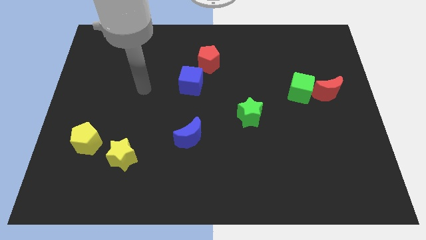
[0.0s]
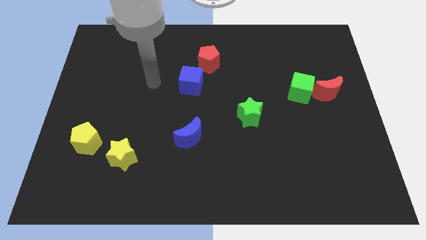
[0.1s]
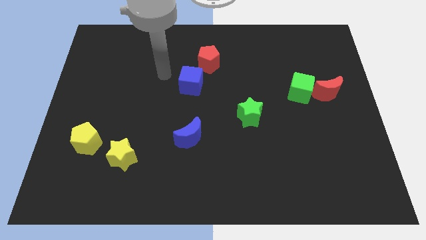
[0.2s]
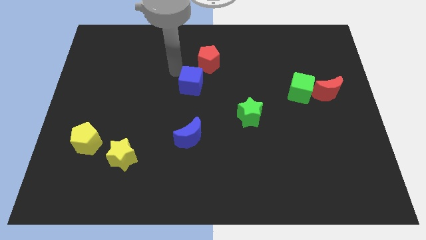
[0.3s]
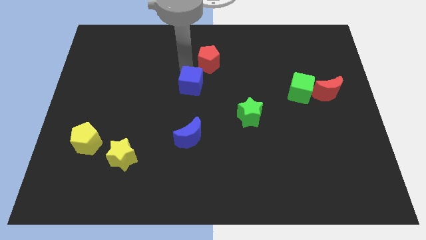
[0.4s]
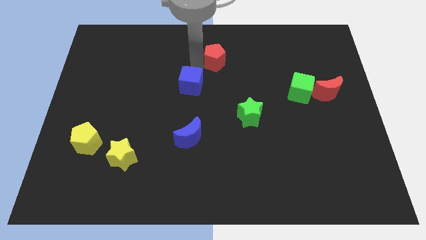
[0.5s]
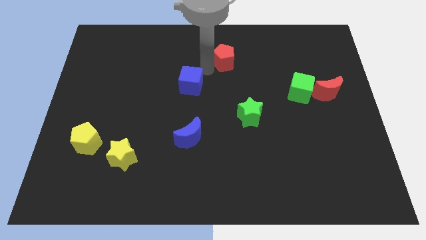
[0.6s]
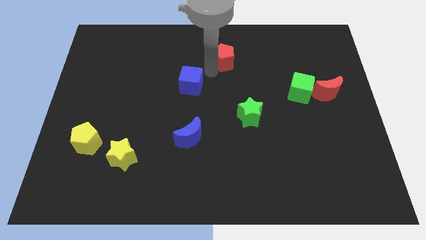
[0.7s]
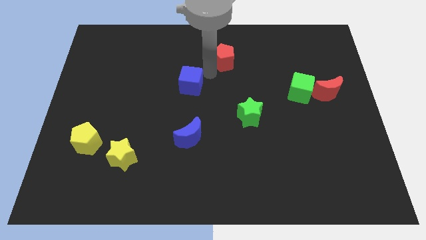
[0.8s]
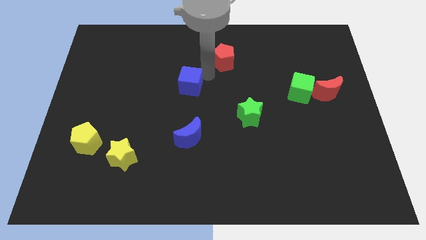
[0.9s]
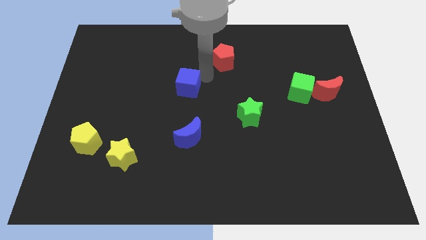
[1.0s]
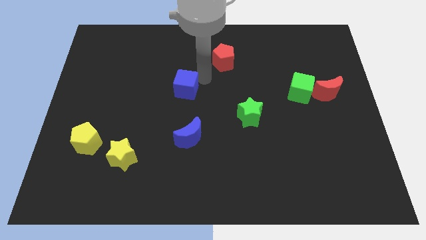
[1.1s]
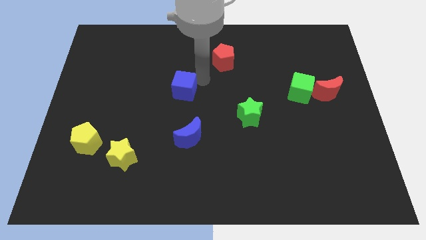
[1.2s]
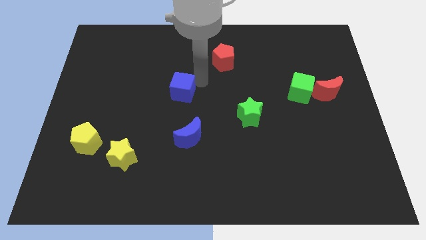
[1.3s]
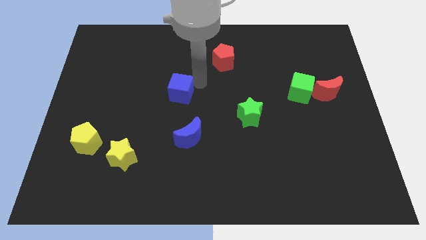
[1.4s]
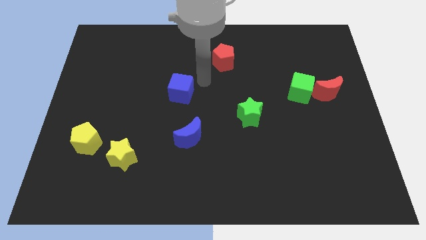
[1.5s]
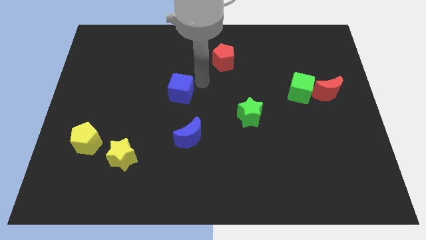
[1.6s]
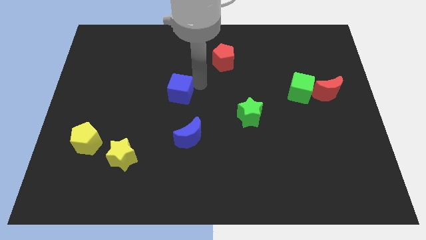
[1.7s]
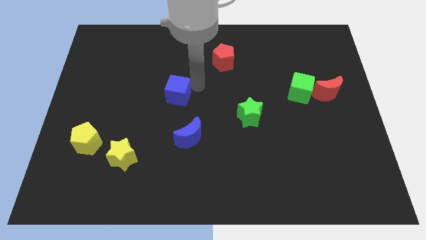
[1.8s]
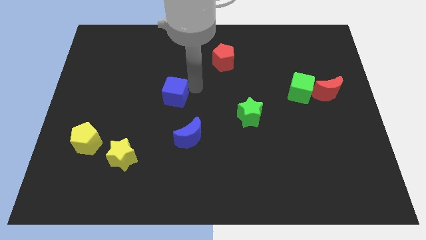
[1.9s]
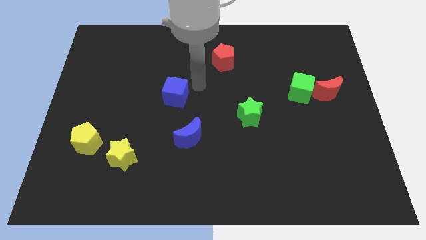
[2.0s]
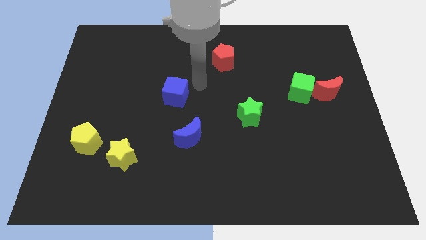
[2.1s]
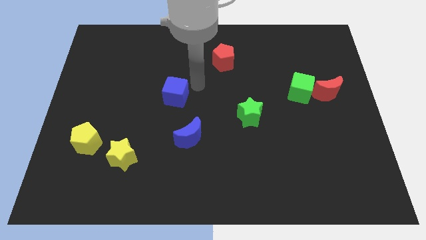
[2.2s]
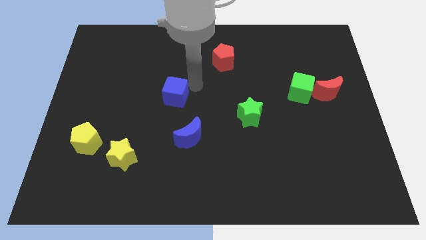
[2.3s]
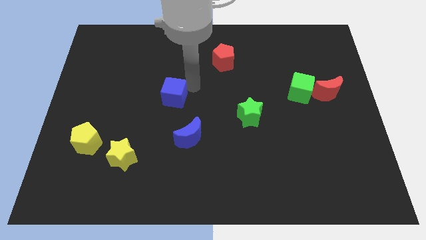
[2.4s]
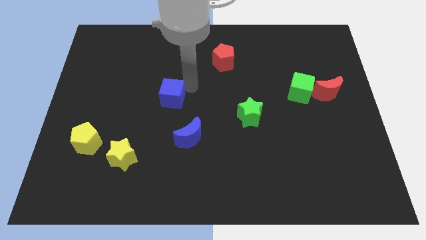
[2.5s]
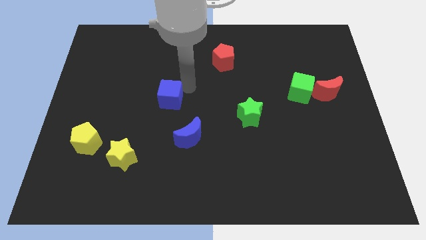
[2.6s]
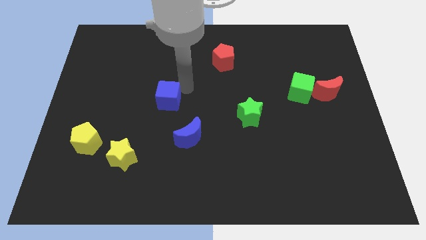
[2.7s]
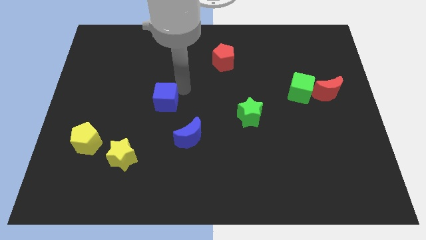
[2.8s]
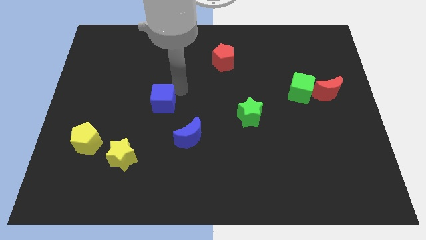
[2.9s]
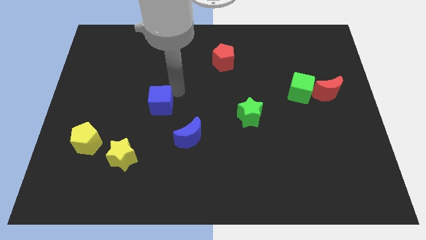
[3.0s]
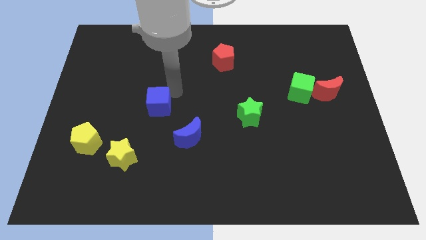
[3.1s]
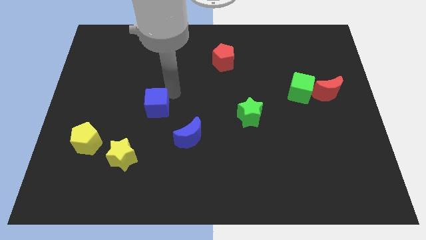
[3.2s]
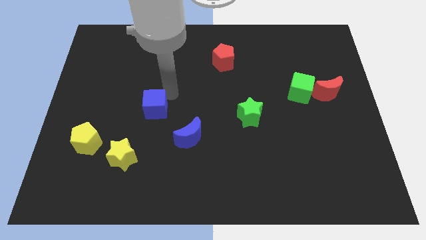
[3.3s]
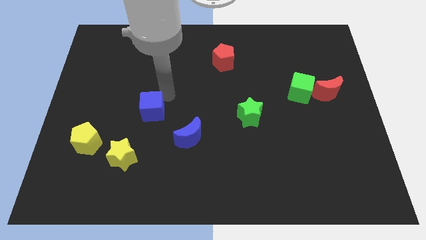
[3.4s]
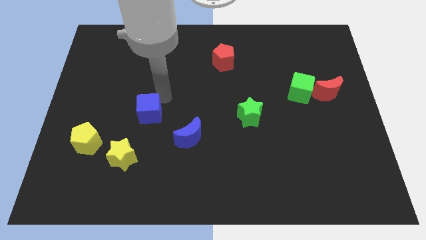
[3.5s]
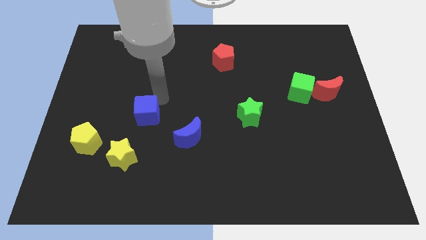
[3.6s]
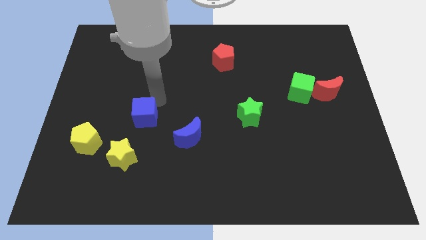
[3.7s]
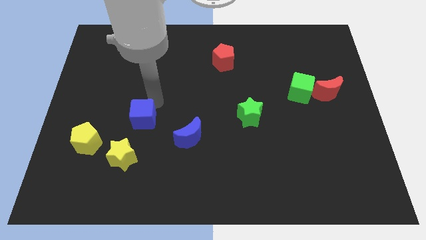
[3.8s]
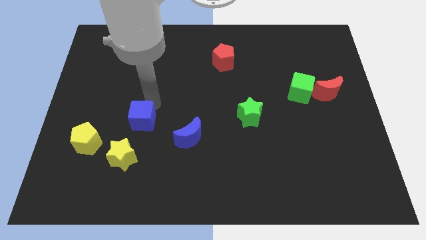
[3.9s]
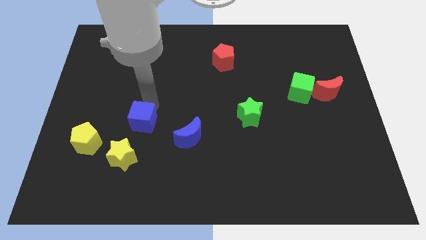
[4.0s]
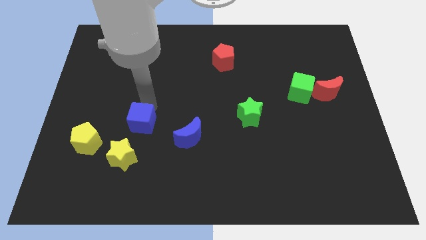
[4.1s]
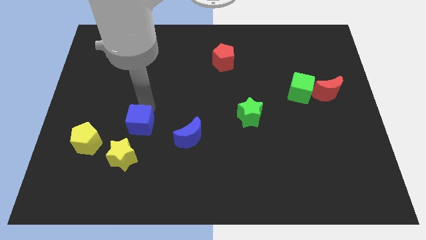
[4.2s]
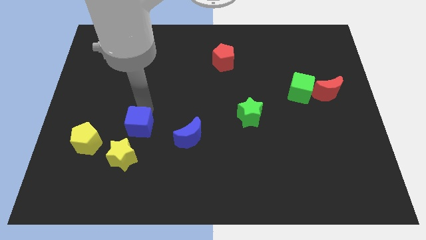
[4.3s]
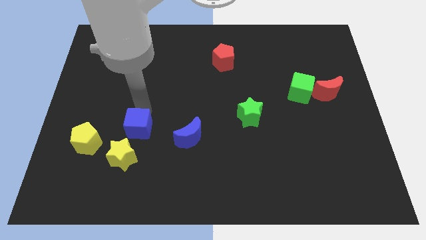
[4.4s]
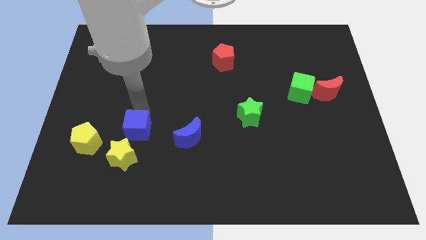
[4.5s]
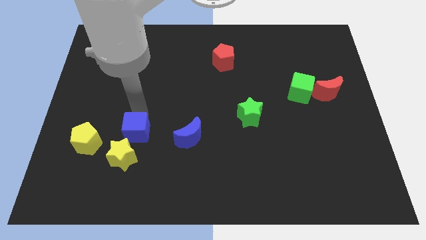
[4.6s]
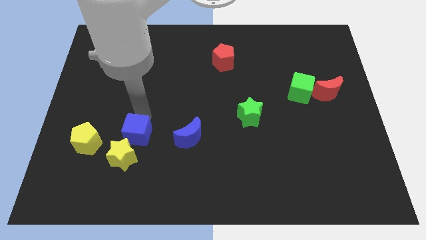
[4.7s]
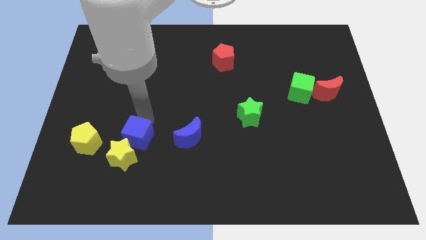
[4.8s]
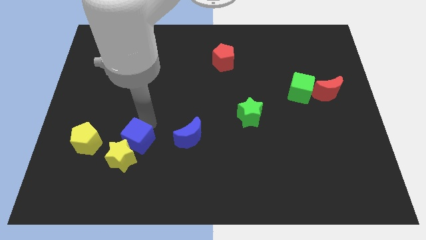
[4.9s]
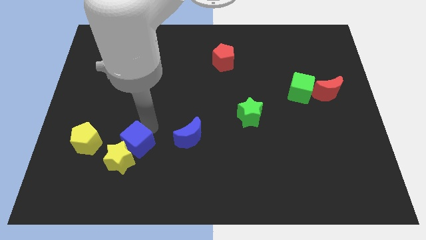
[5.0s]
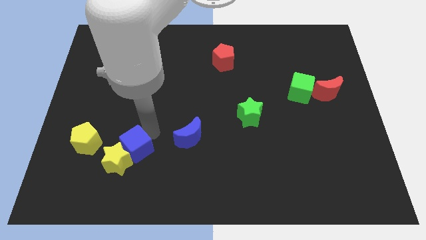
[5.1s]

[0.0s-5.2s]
push the blue cube downwards and left diagonally

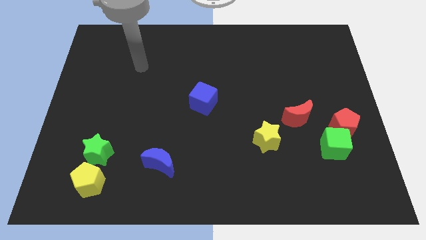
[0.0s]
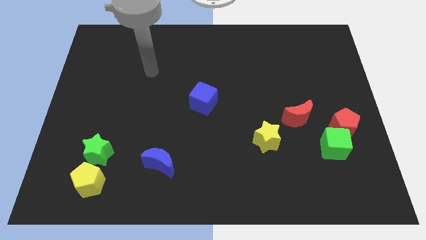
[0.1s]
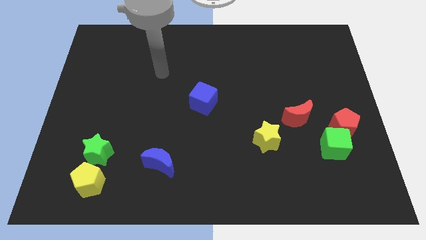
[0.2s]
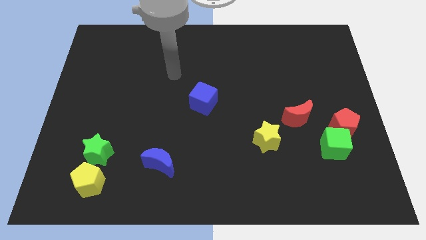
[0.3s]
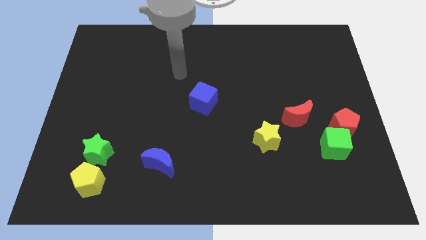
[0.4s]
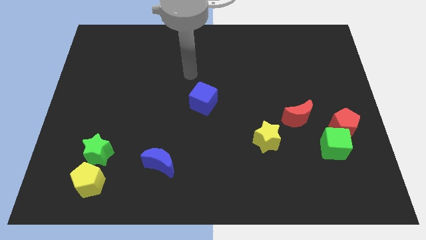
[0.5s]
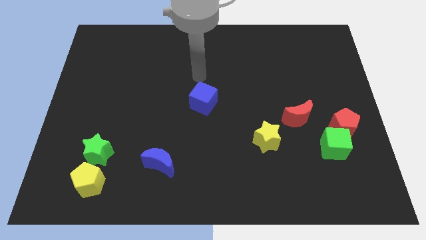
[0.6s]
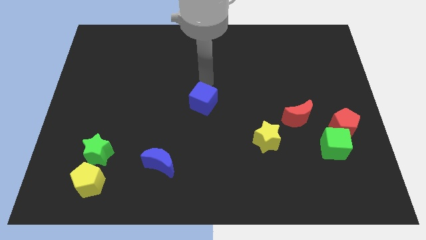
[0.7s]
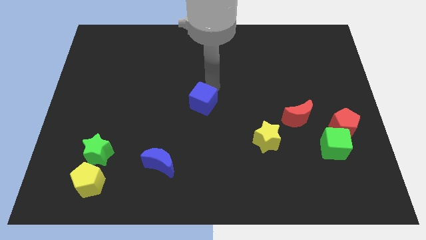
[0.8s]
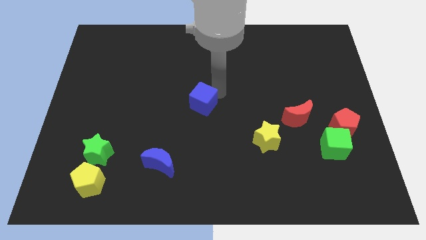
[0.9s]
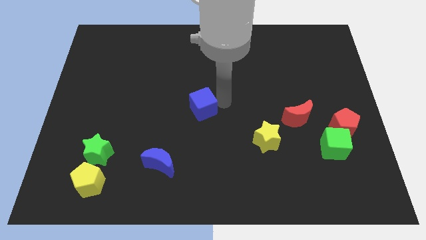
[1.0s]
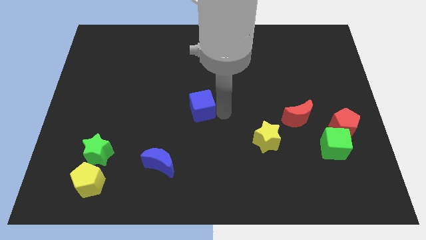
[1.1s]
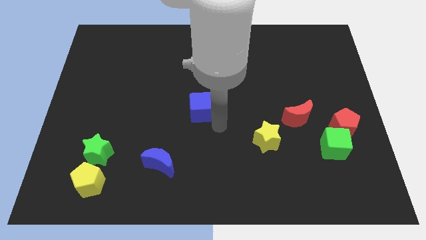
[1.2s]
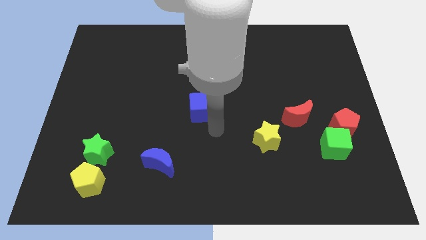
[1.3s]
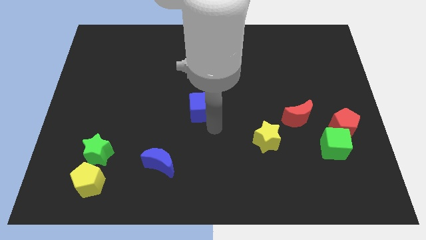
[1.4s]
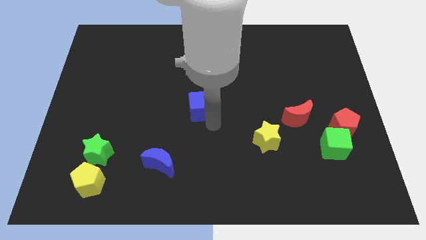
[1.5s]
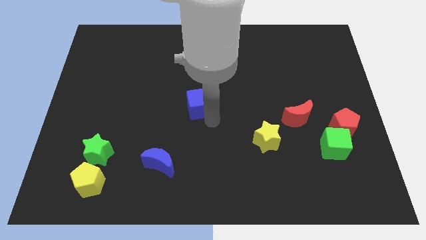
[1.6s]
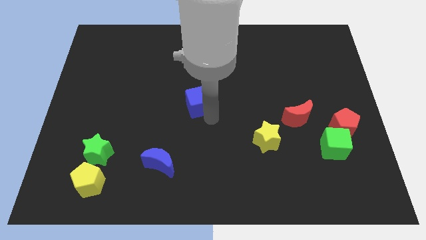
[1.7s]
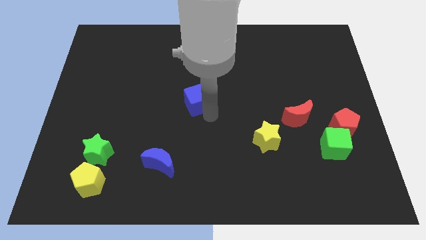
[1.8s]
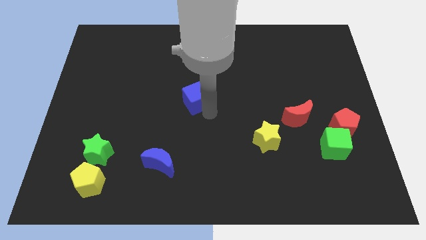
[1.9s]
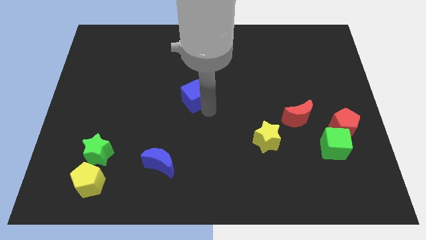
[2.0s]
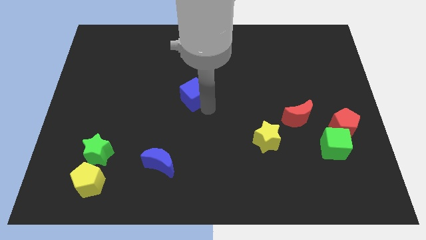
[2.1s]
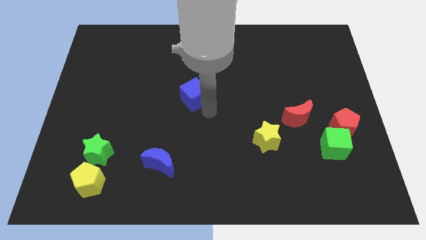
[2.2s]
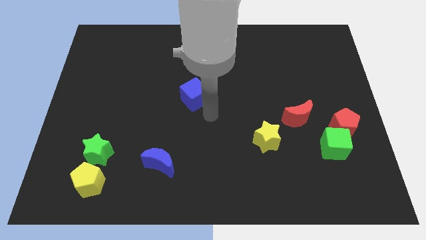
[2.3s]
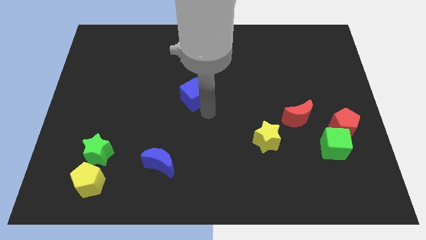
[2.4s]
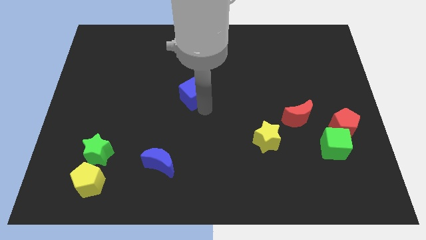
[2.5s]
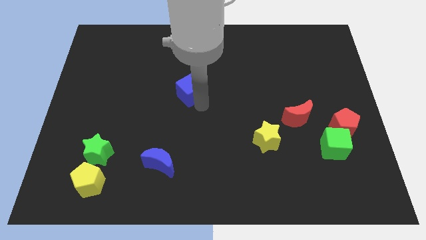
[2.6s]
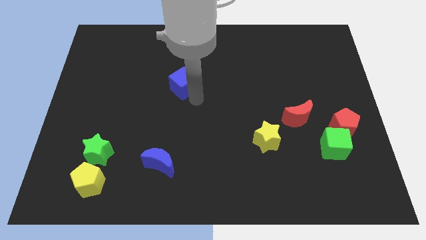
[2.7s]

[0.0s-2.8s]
slightly push the blue cube up and then to the left
